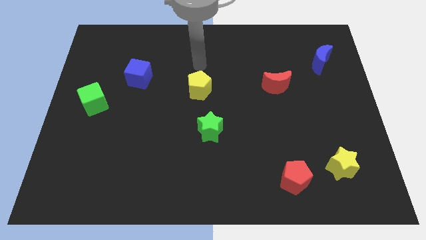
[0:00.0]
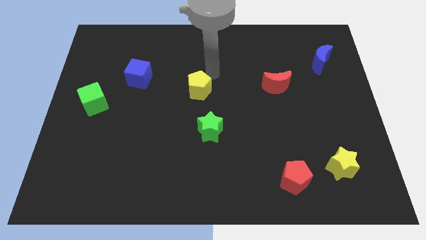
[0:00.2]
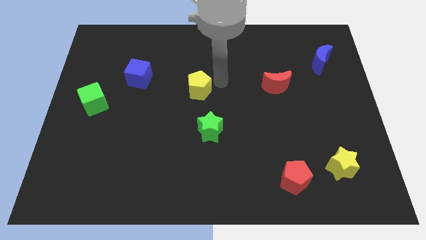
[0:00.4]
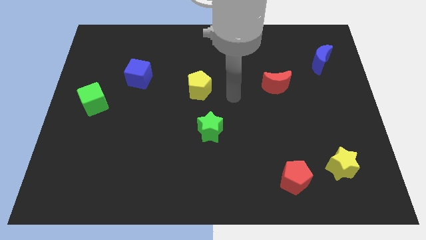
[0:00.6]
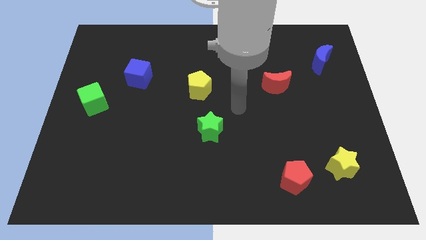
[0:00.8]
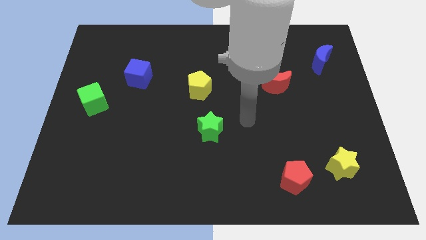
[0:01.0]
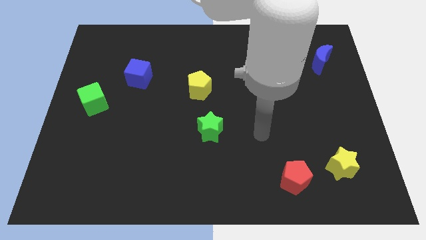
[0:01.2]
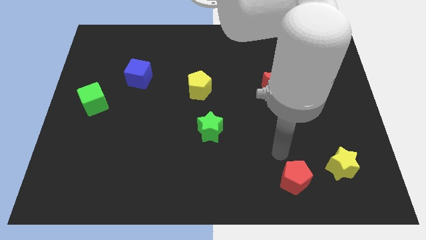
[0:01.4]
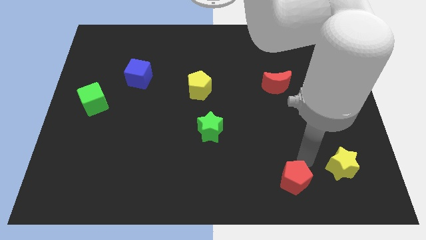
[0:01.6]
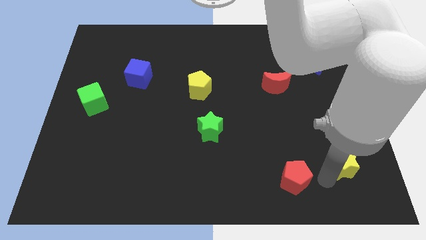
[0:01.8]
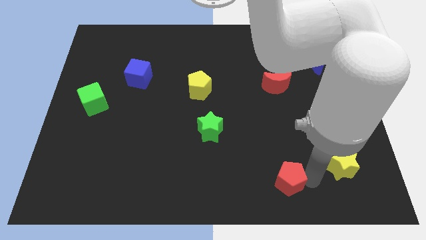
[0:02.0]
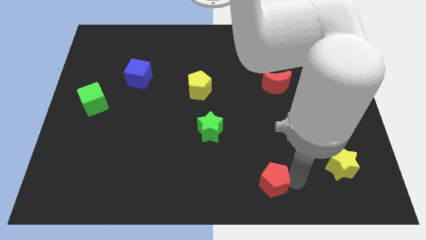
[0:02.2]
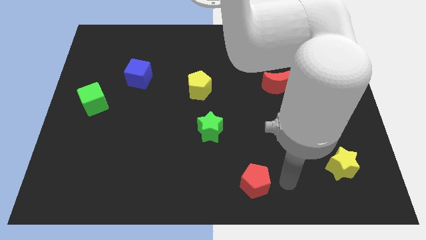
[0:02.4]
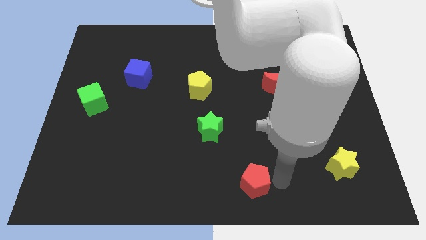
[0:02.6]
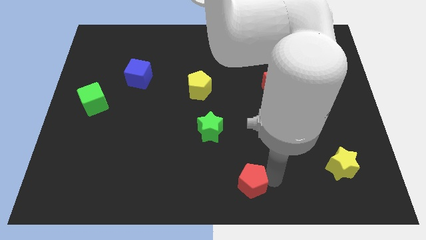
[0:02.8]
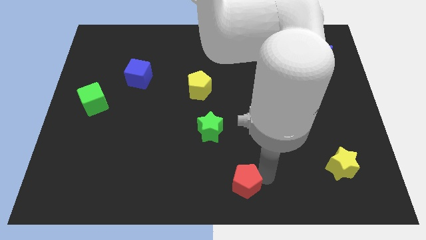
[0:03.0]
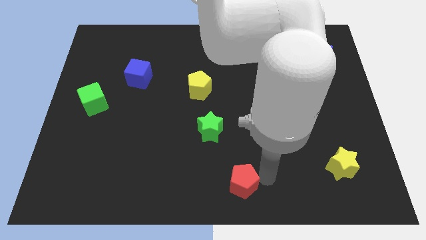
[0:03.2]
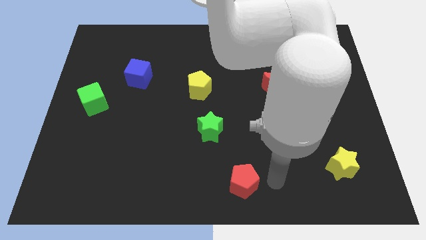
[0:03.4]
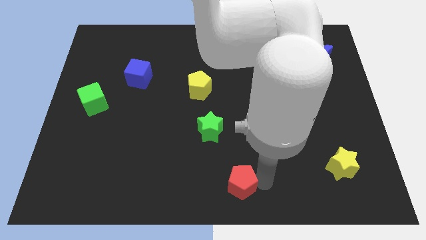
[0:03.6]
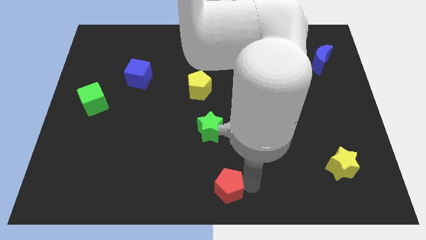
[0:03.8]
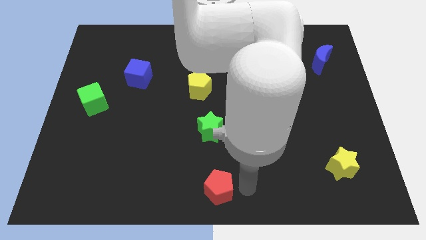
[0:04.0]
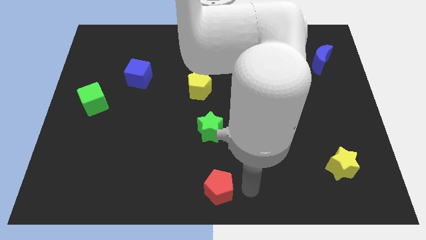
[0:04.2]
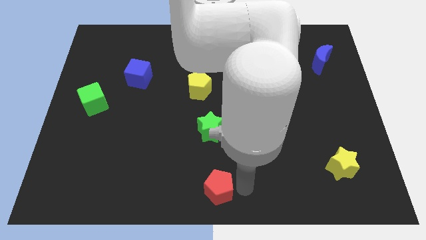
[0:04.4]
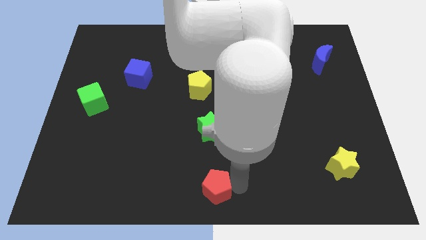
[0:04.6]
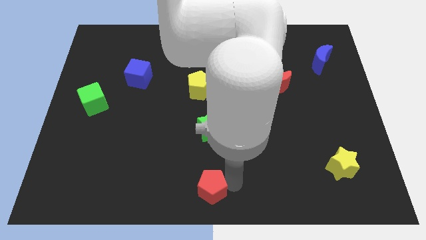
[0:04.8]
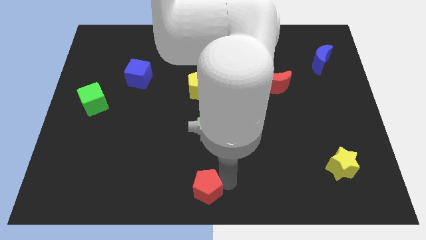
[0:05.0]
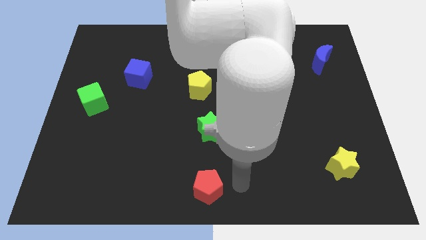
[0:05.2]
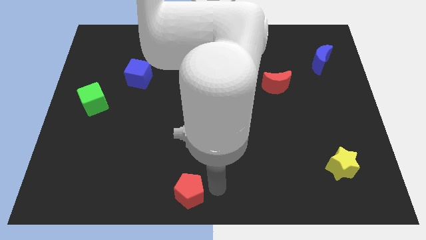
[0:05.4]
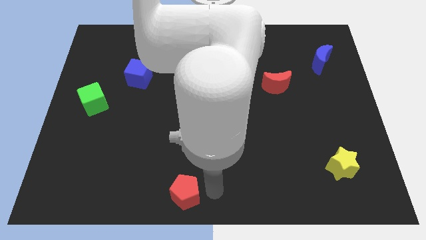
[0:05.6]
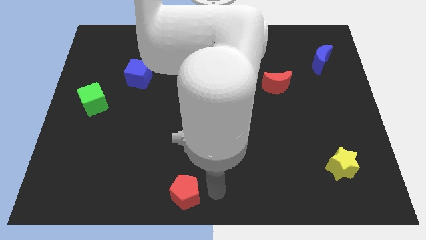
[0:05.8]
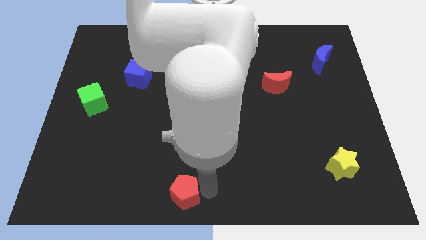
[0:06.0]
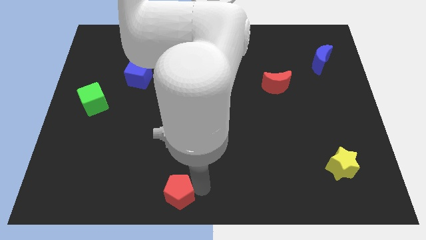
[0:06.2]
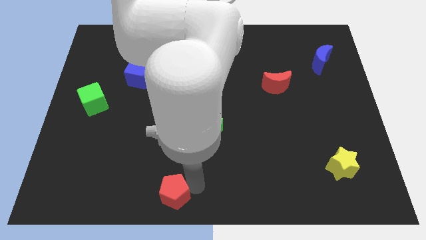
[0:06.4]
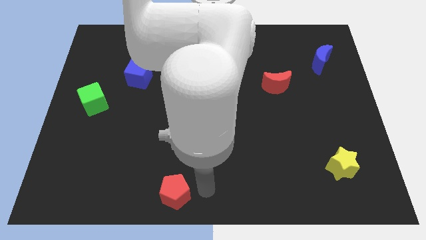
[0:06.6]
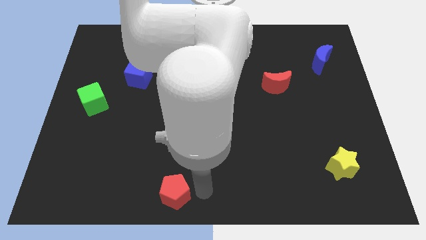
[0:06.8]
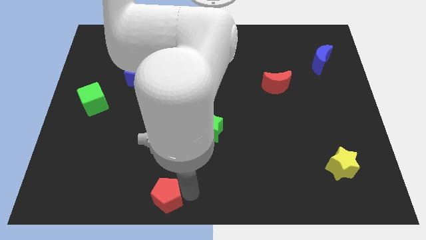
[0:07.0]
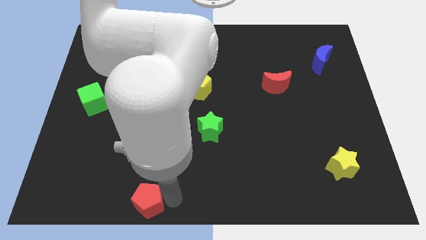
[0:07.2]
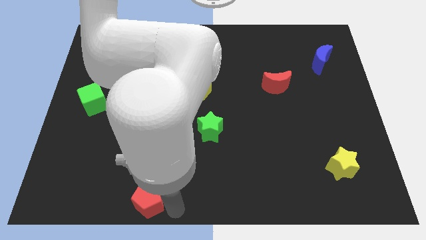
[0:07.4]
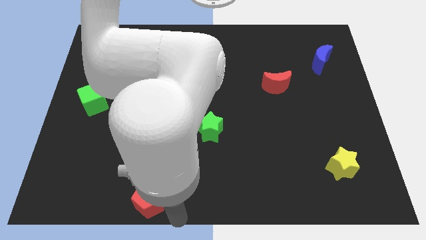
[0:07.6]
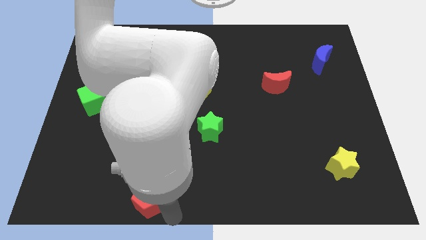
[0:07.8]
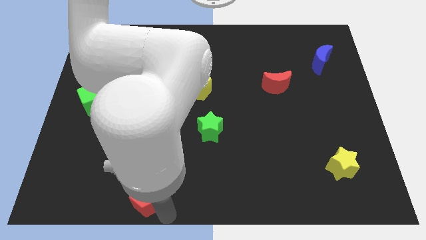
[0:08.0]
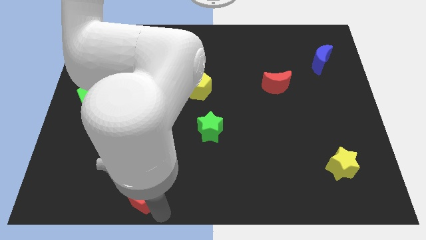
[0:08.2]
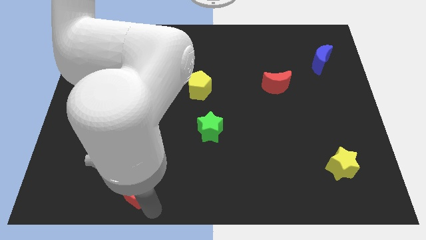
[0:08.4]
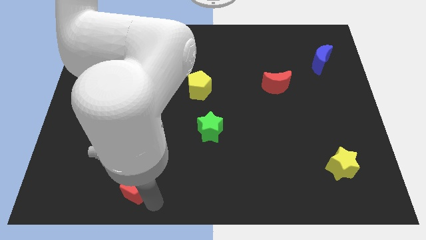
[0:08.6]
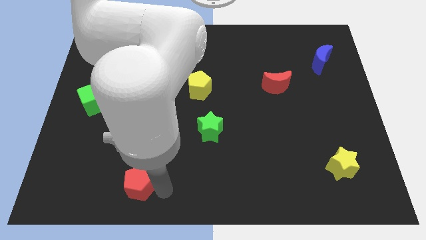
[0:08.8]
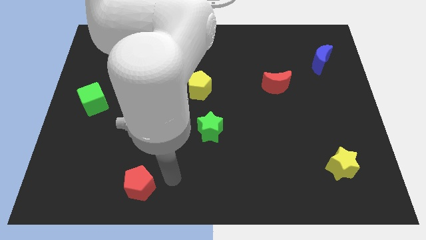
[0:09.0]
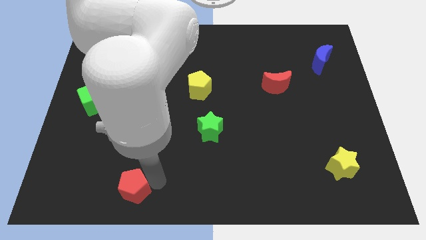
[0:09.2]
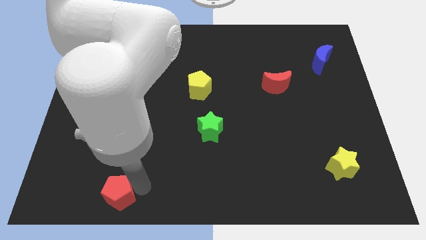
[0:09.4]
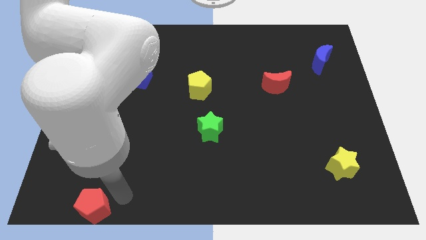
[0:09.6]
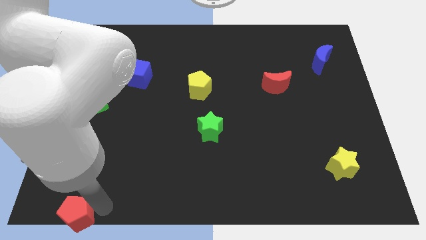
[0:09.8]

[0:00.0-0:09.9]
move the red pentagon to the bottom left

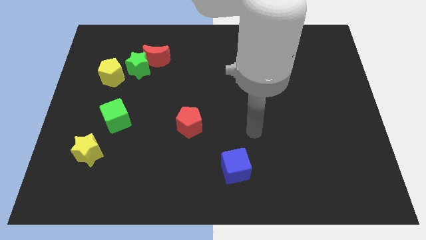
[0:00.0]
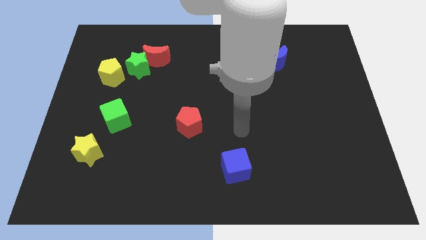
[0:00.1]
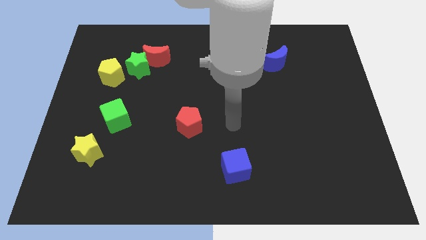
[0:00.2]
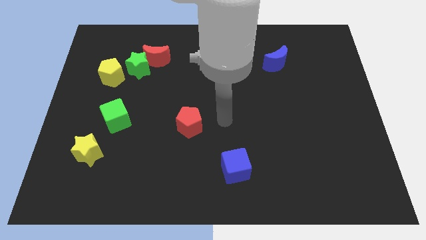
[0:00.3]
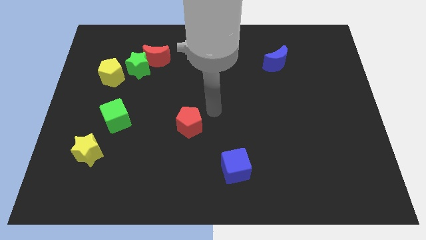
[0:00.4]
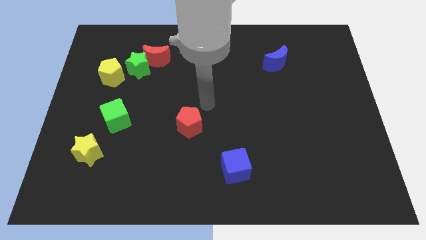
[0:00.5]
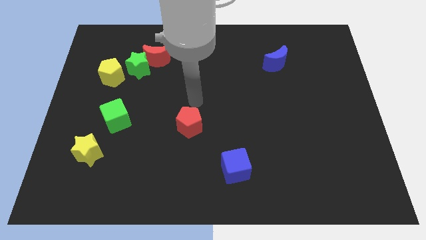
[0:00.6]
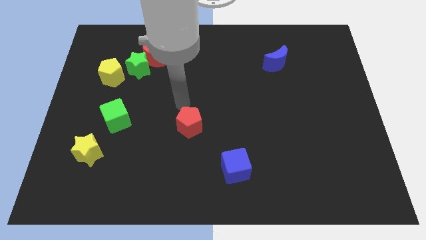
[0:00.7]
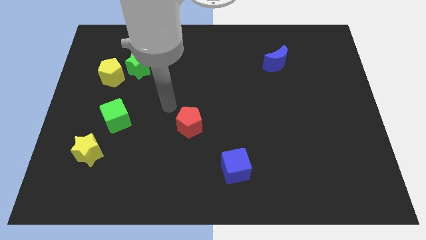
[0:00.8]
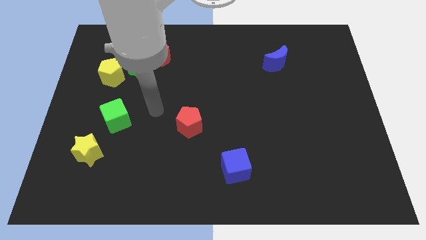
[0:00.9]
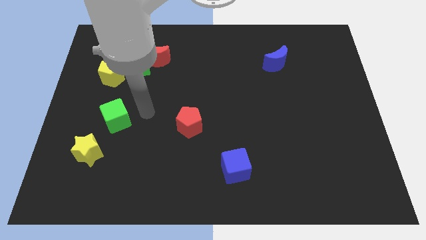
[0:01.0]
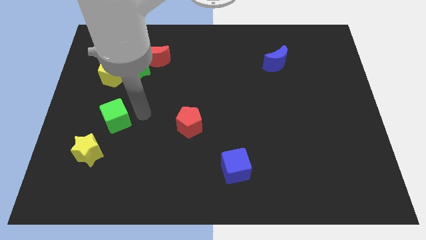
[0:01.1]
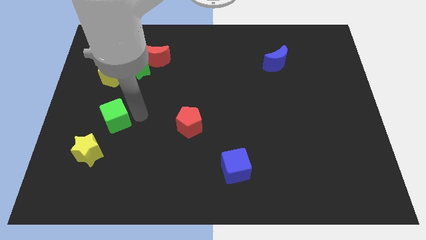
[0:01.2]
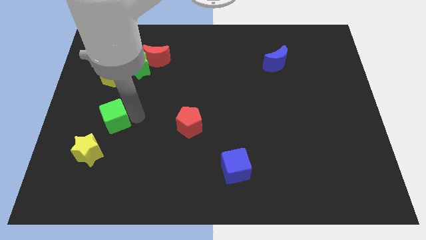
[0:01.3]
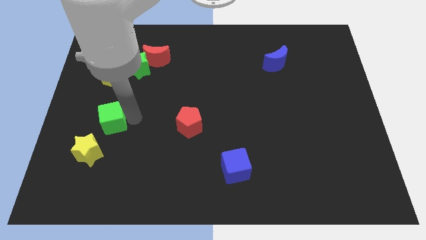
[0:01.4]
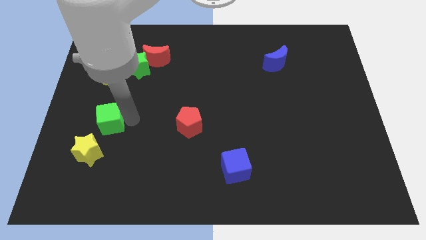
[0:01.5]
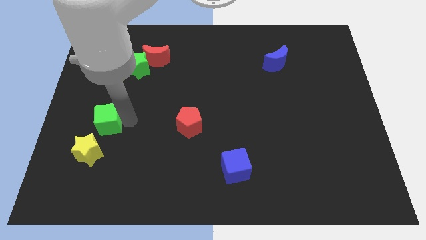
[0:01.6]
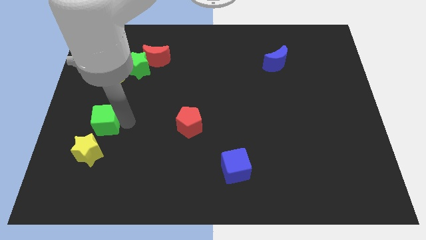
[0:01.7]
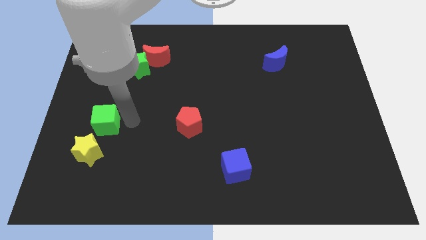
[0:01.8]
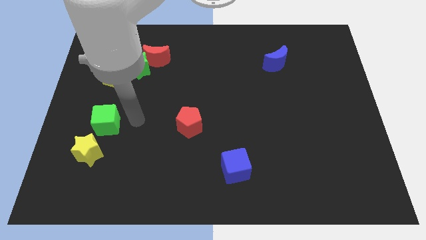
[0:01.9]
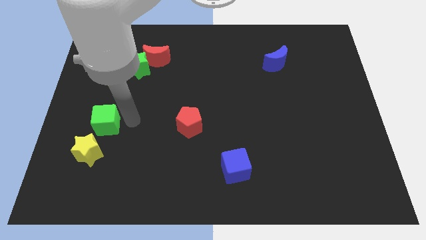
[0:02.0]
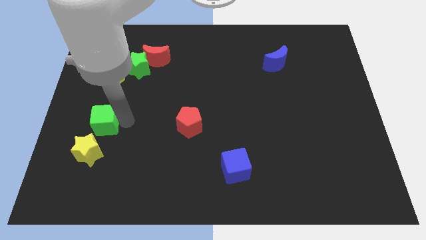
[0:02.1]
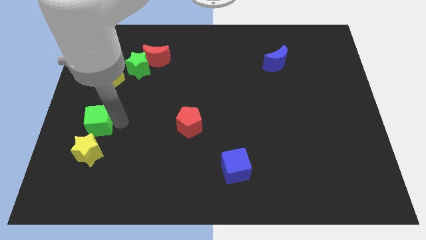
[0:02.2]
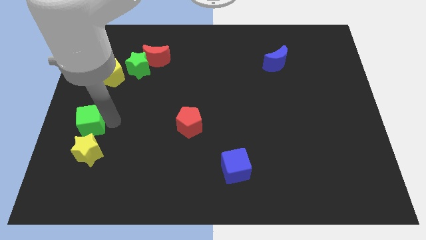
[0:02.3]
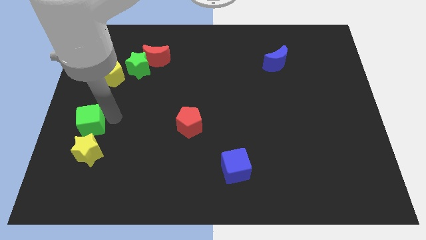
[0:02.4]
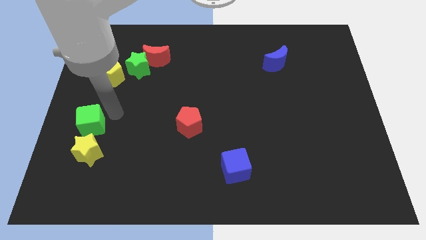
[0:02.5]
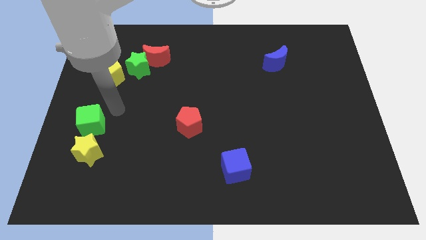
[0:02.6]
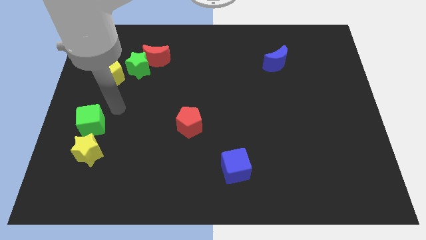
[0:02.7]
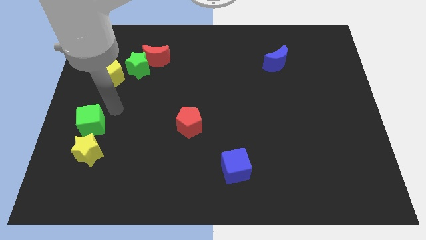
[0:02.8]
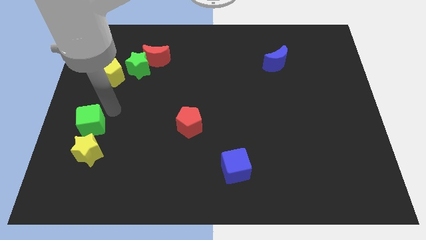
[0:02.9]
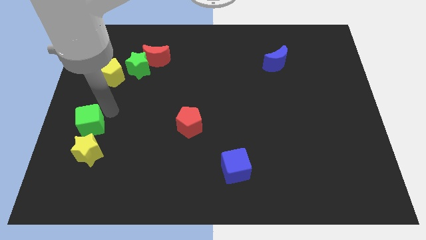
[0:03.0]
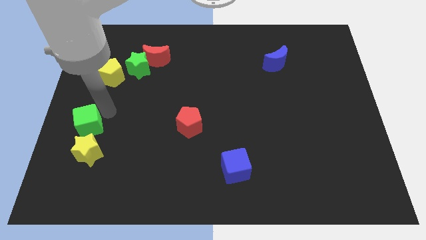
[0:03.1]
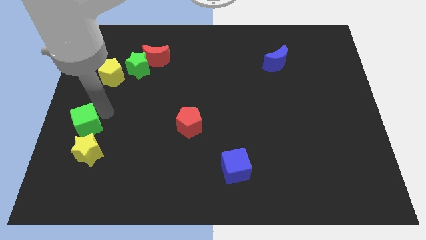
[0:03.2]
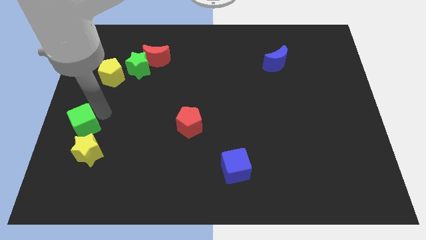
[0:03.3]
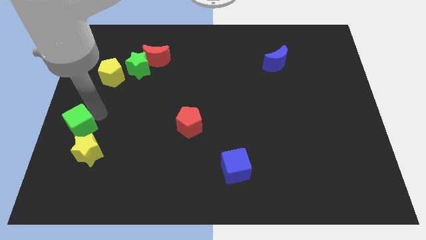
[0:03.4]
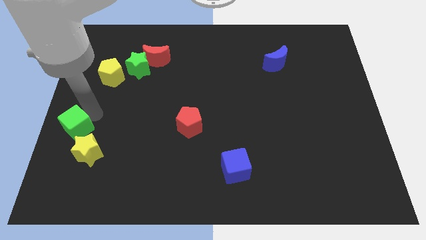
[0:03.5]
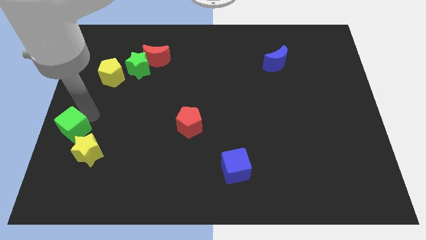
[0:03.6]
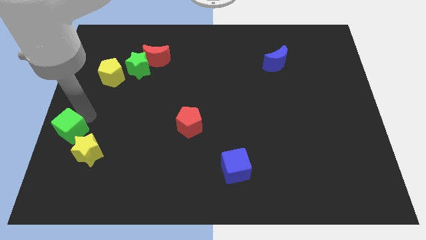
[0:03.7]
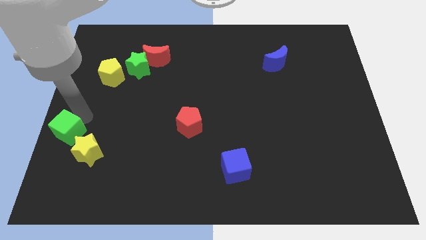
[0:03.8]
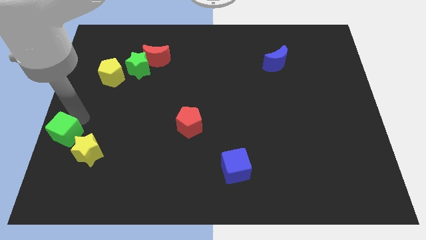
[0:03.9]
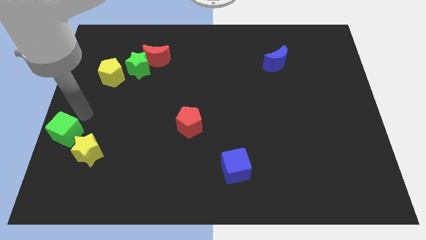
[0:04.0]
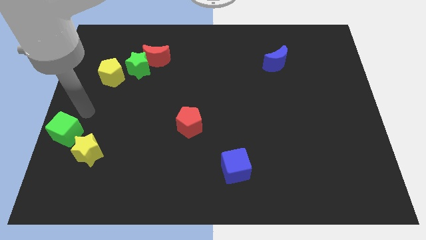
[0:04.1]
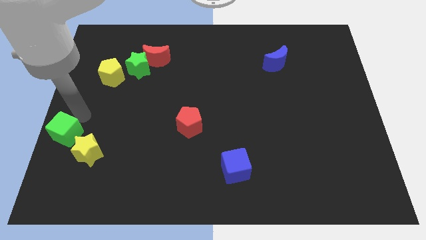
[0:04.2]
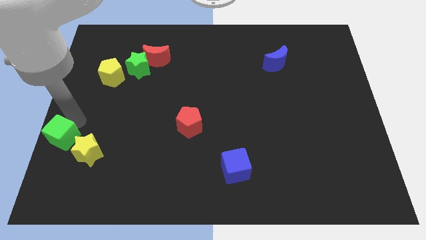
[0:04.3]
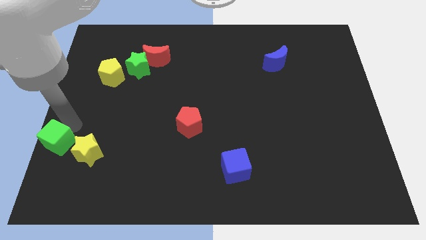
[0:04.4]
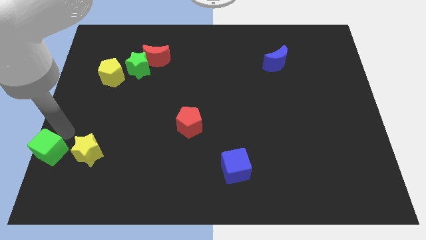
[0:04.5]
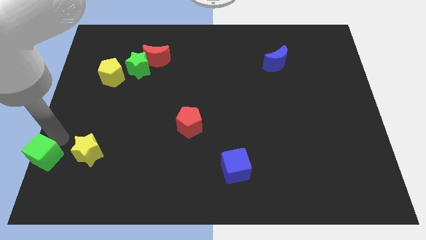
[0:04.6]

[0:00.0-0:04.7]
slide the green cube to the lower left corner
